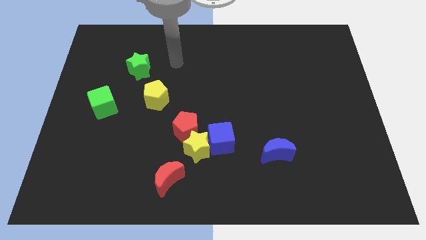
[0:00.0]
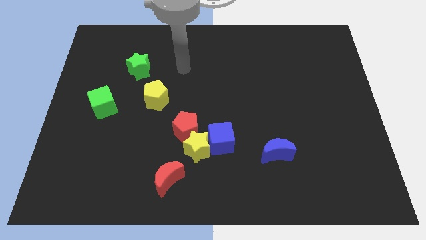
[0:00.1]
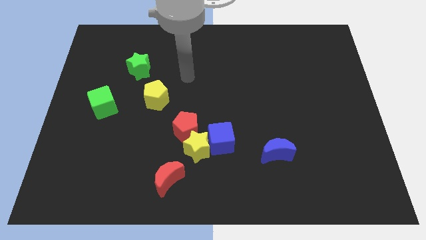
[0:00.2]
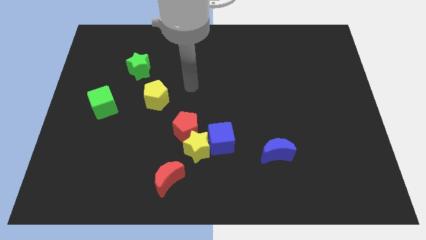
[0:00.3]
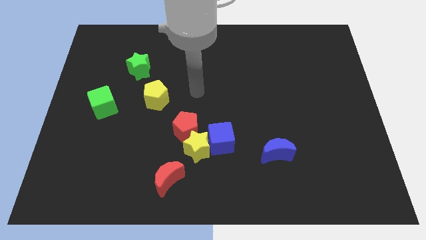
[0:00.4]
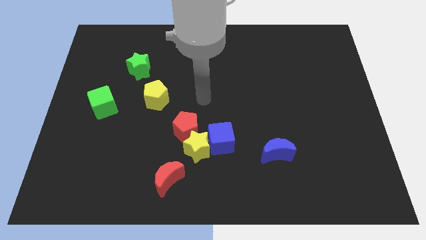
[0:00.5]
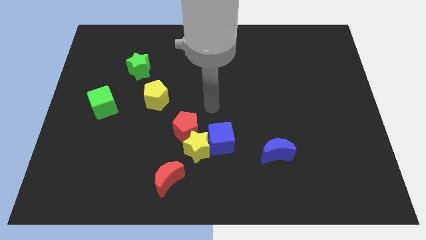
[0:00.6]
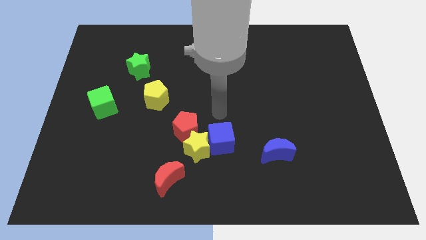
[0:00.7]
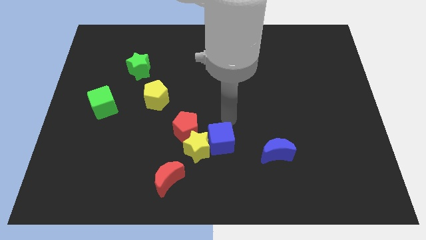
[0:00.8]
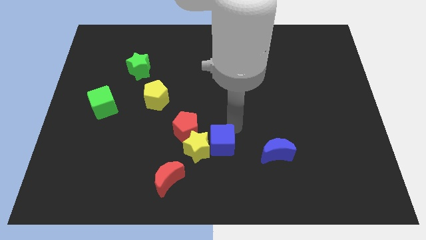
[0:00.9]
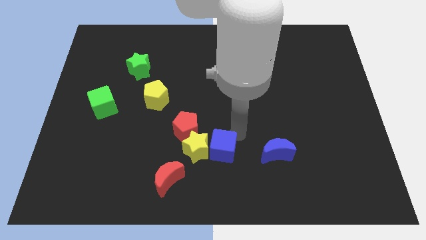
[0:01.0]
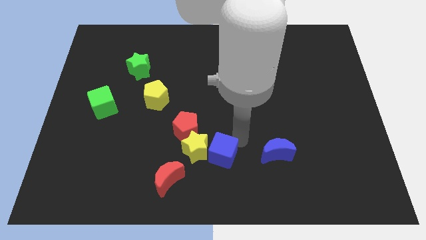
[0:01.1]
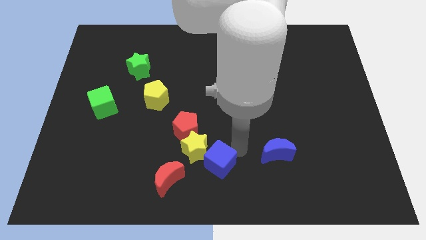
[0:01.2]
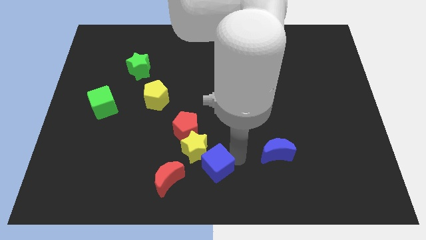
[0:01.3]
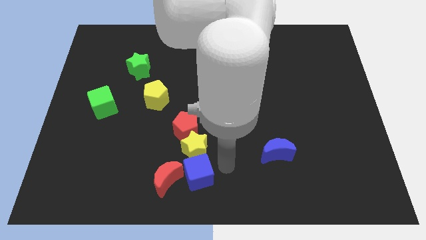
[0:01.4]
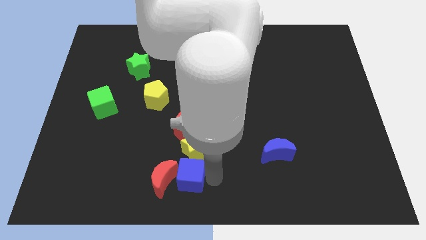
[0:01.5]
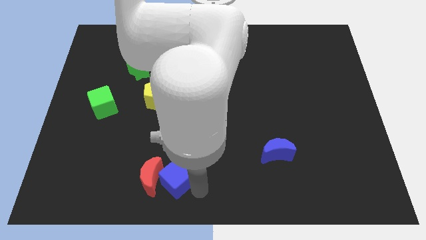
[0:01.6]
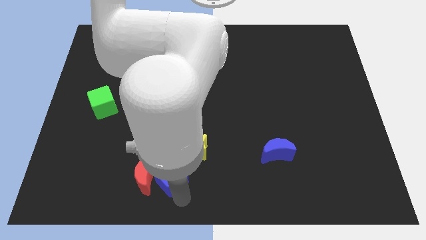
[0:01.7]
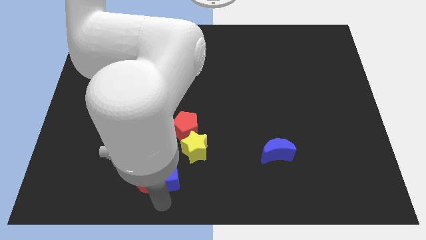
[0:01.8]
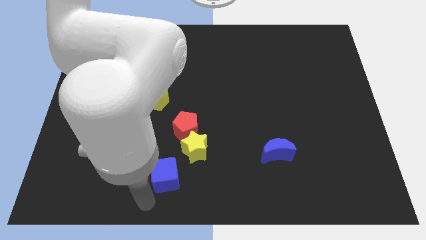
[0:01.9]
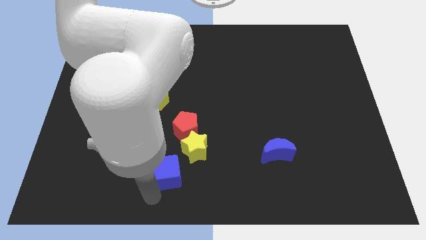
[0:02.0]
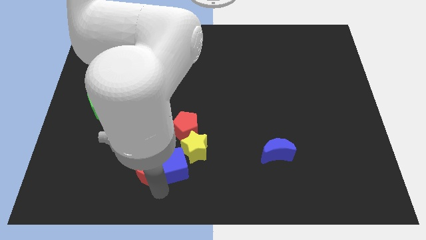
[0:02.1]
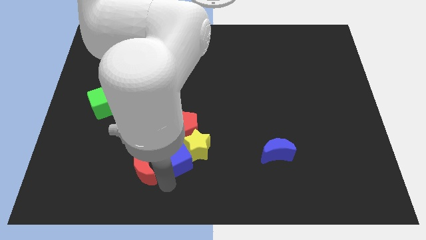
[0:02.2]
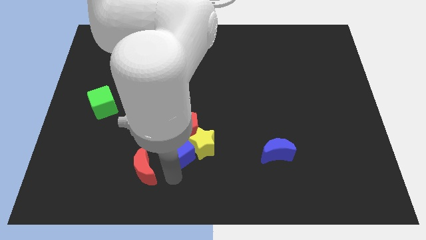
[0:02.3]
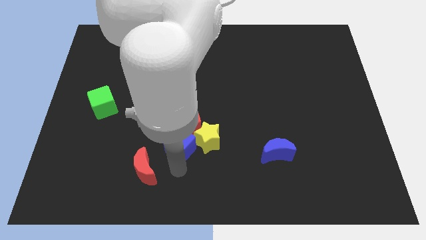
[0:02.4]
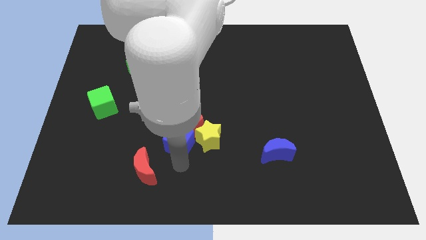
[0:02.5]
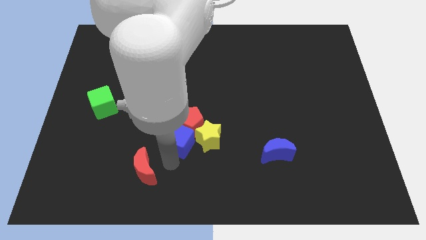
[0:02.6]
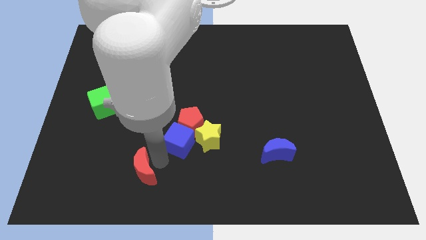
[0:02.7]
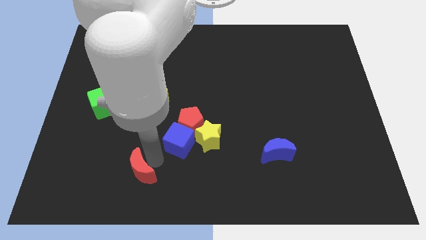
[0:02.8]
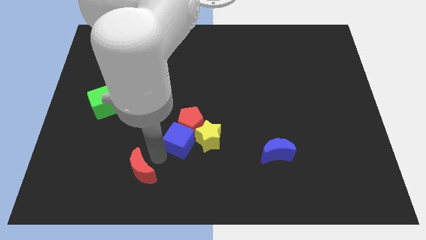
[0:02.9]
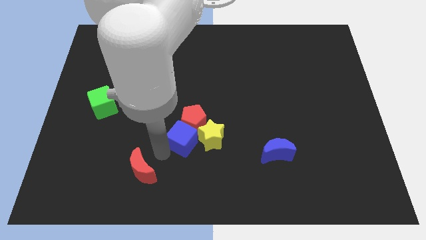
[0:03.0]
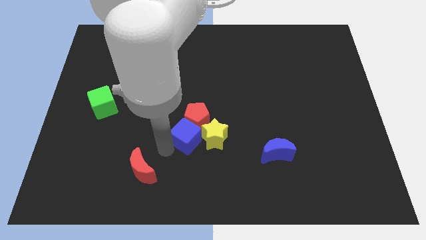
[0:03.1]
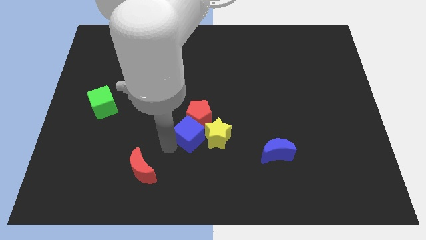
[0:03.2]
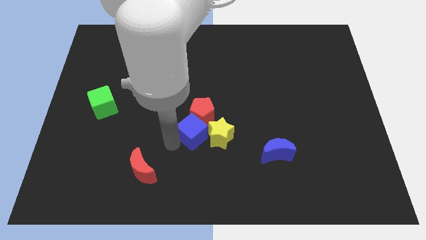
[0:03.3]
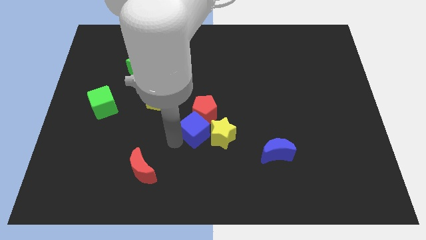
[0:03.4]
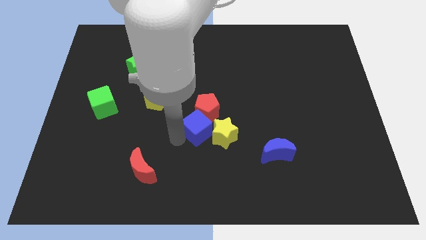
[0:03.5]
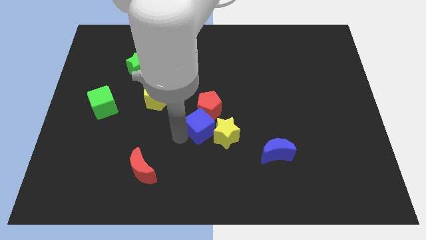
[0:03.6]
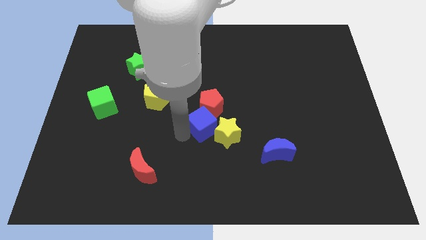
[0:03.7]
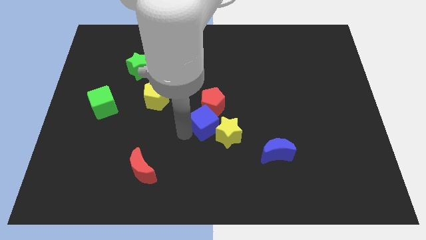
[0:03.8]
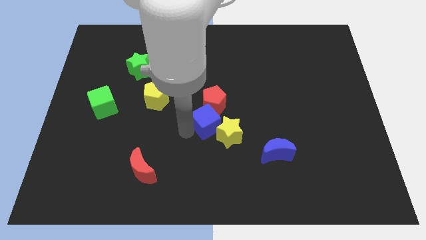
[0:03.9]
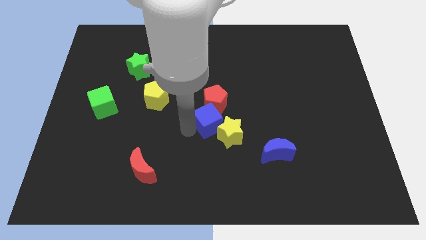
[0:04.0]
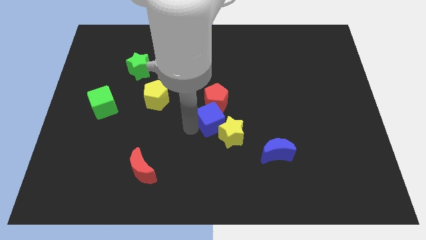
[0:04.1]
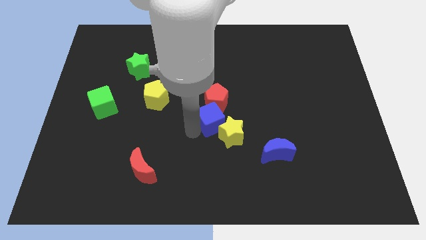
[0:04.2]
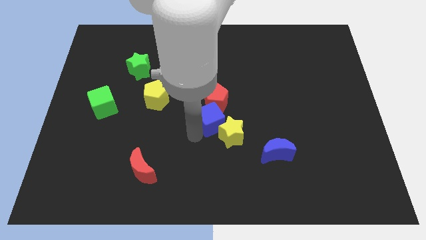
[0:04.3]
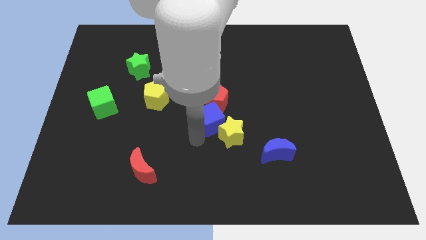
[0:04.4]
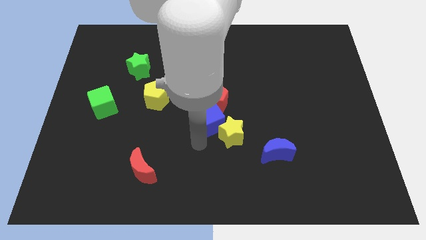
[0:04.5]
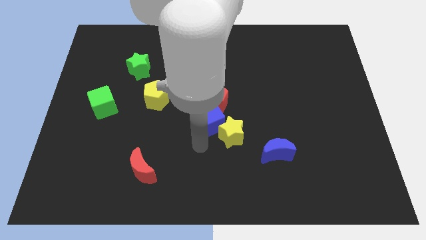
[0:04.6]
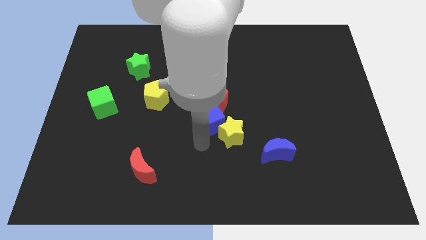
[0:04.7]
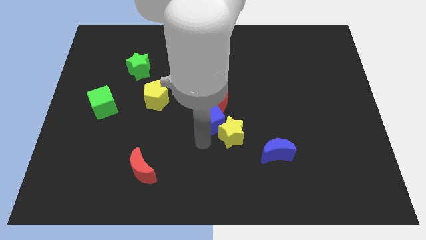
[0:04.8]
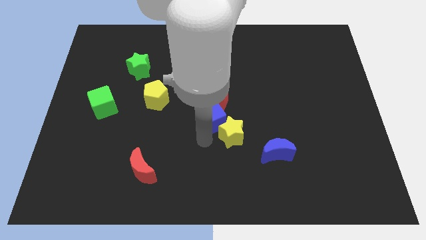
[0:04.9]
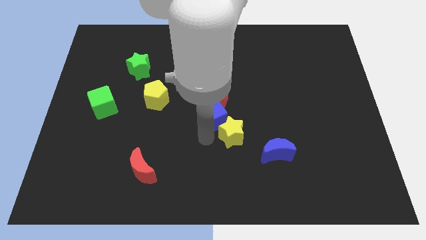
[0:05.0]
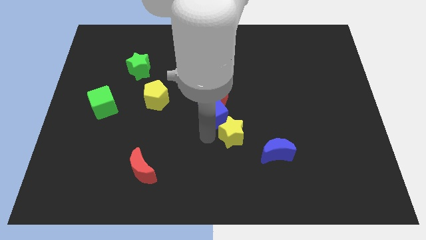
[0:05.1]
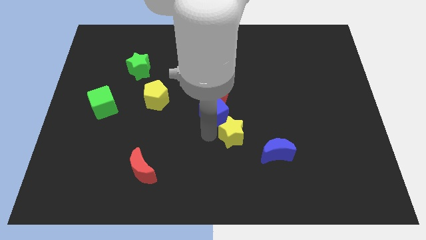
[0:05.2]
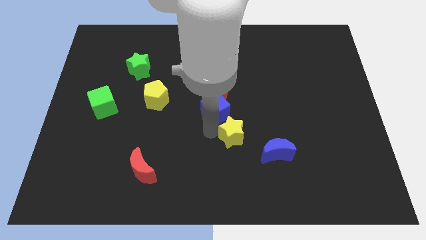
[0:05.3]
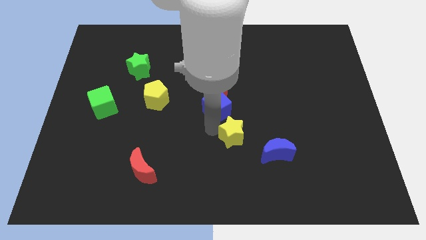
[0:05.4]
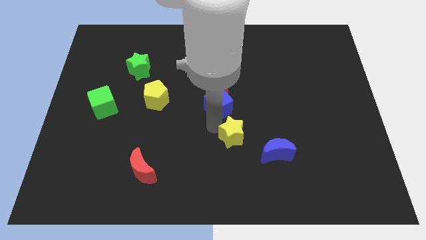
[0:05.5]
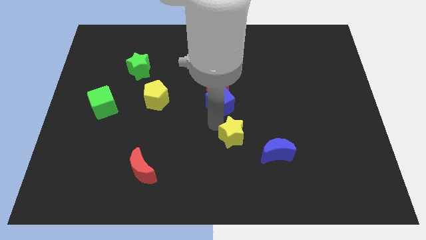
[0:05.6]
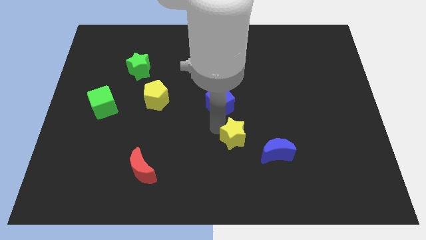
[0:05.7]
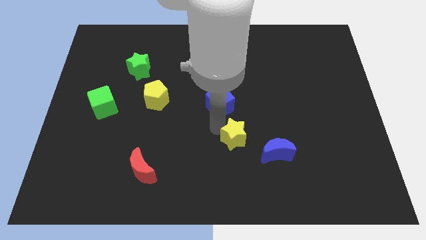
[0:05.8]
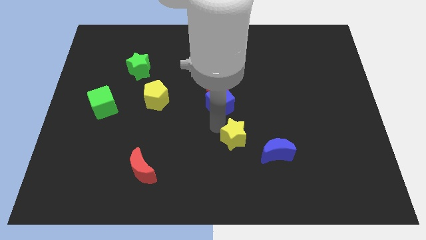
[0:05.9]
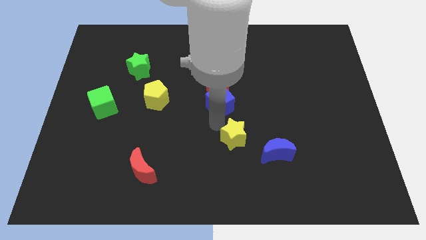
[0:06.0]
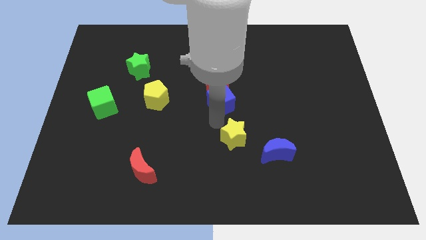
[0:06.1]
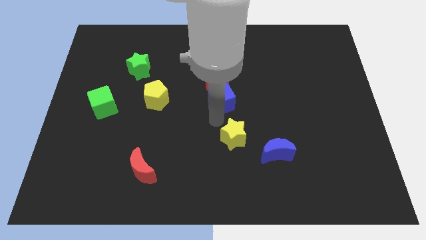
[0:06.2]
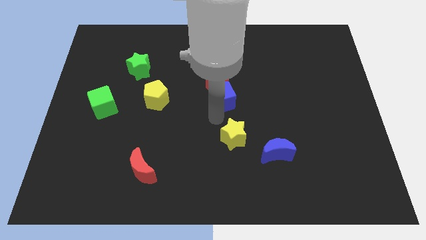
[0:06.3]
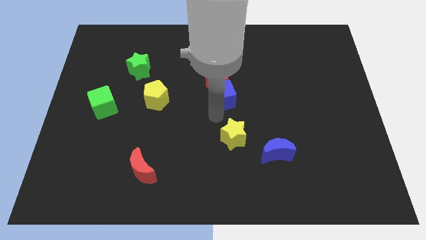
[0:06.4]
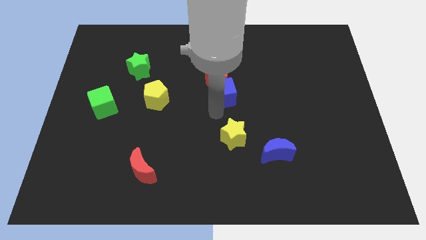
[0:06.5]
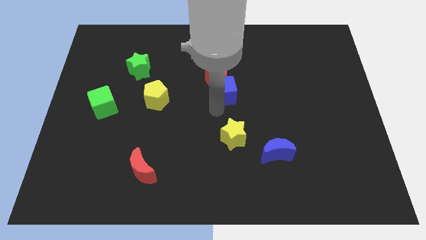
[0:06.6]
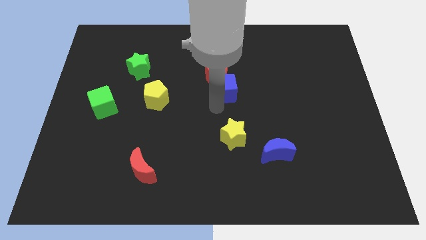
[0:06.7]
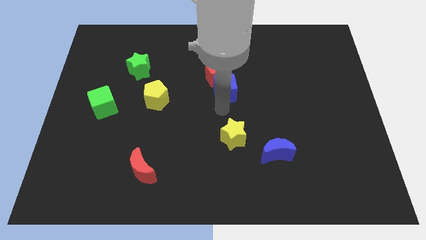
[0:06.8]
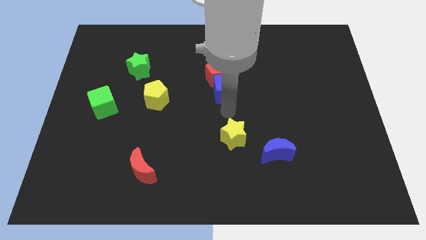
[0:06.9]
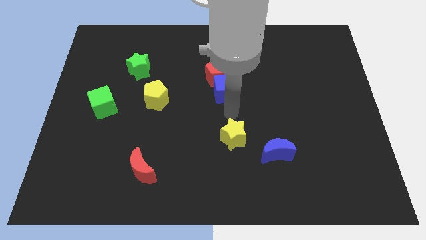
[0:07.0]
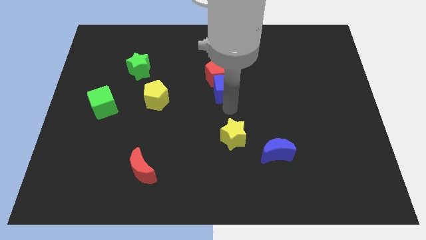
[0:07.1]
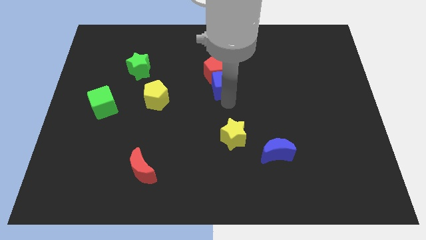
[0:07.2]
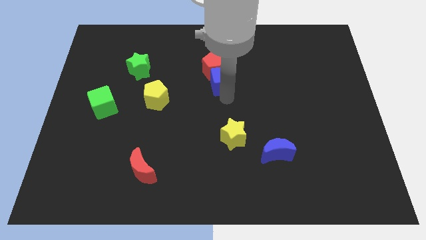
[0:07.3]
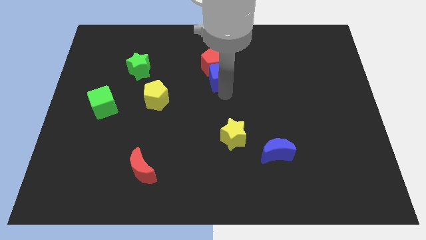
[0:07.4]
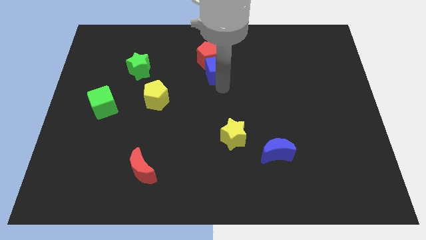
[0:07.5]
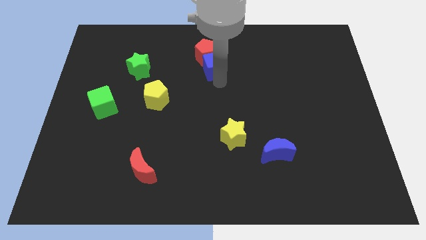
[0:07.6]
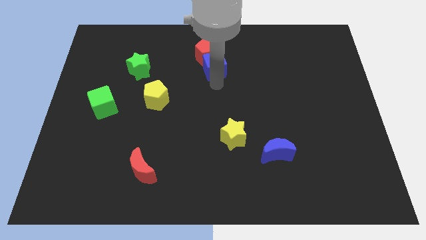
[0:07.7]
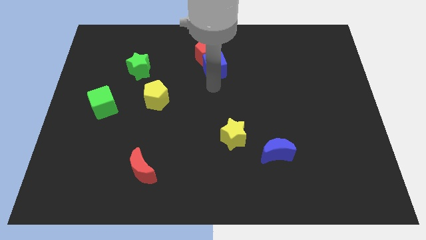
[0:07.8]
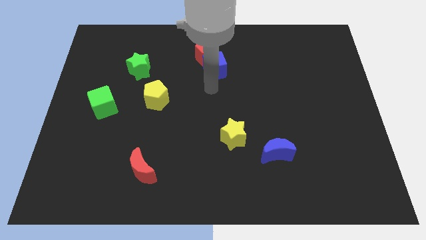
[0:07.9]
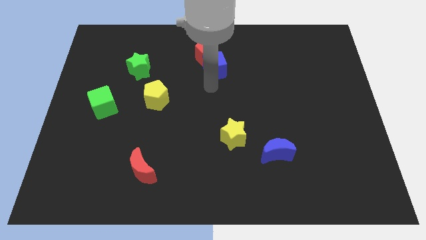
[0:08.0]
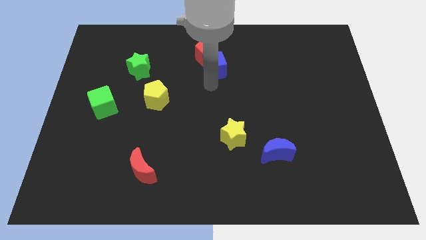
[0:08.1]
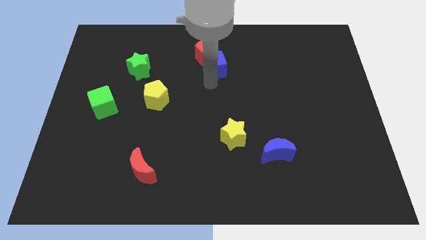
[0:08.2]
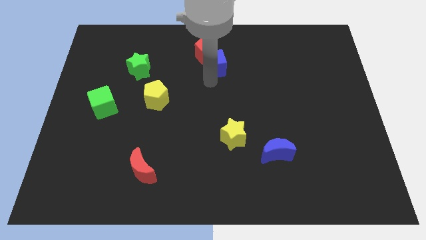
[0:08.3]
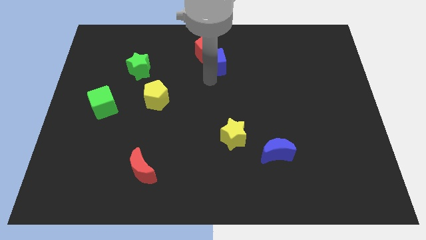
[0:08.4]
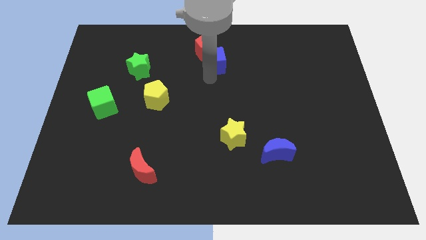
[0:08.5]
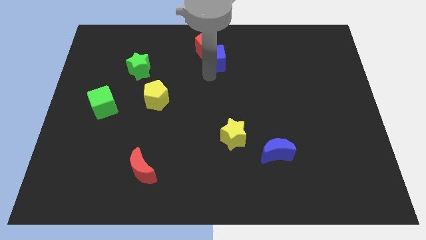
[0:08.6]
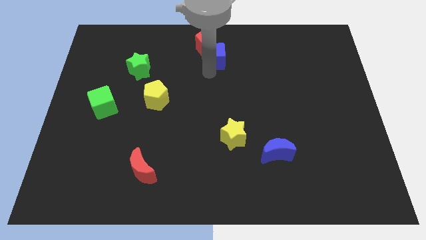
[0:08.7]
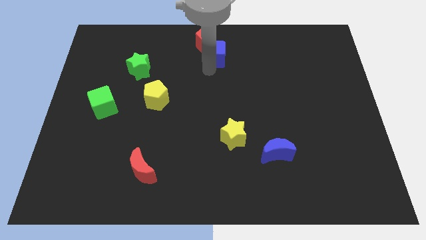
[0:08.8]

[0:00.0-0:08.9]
put the blue cube to the towards your base
